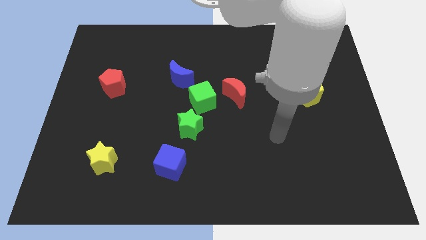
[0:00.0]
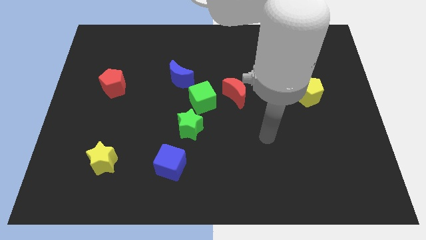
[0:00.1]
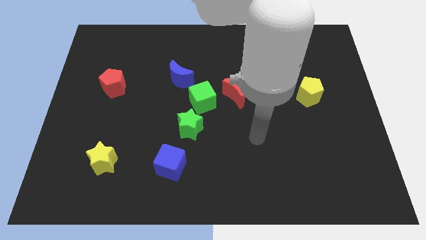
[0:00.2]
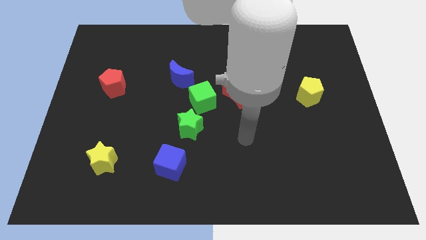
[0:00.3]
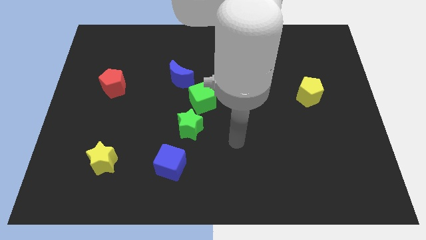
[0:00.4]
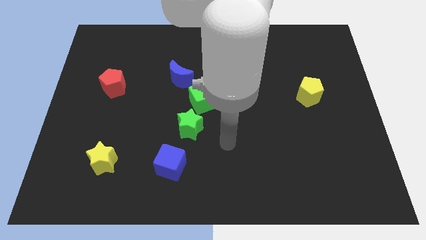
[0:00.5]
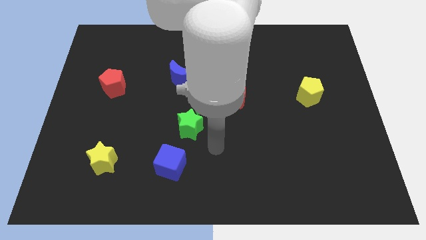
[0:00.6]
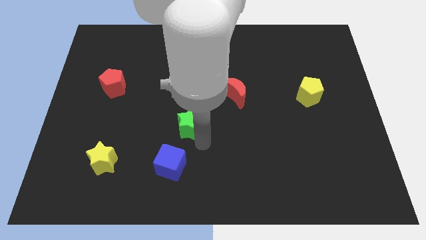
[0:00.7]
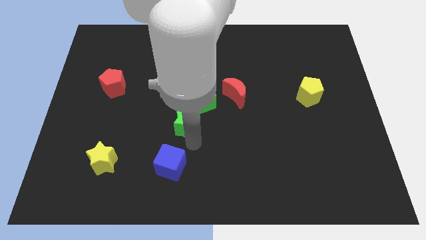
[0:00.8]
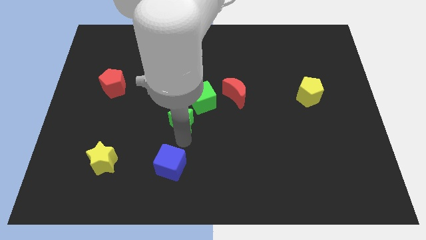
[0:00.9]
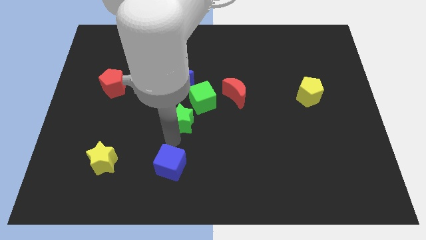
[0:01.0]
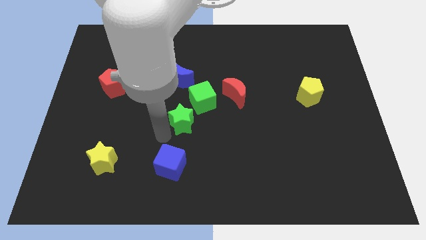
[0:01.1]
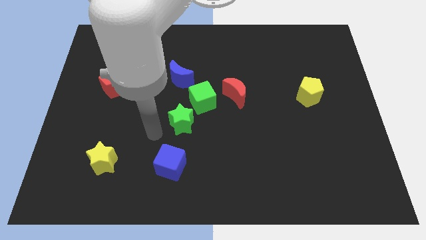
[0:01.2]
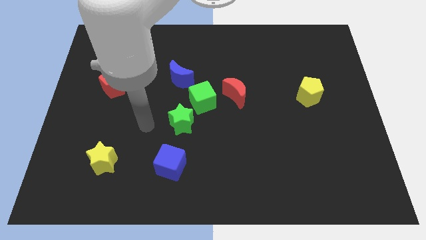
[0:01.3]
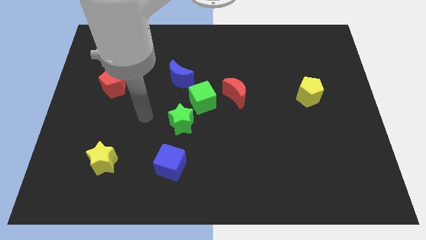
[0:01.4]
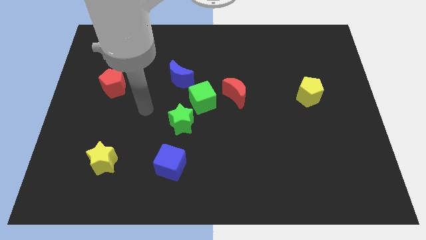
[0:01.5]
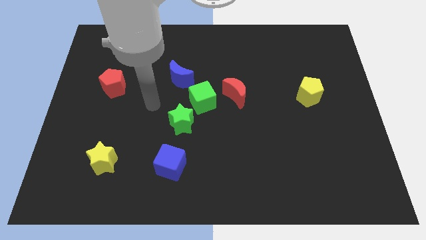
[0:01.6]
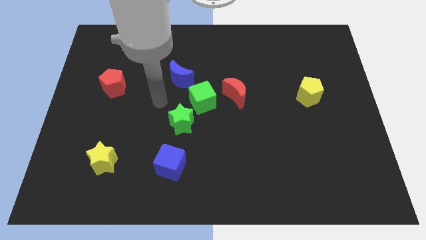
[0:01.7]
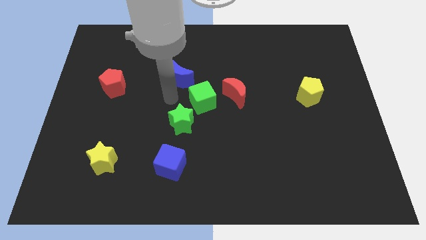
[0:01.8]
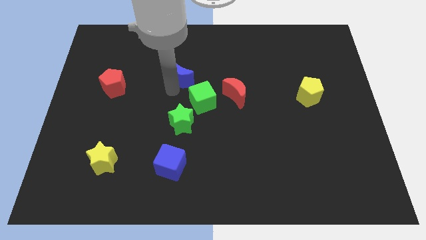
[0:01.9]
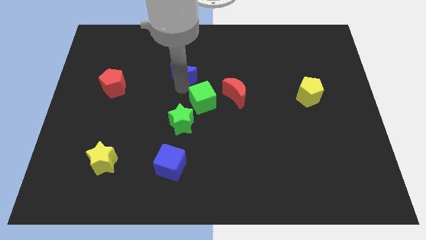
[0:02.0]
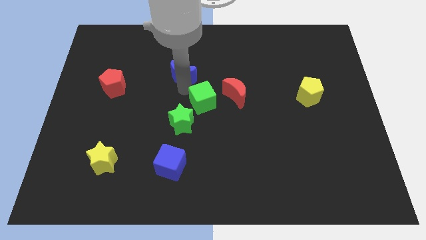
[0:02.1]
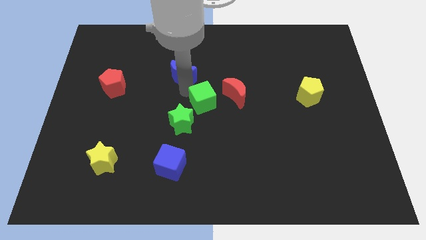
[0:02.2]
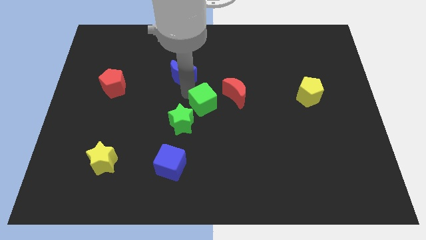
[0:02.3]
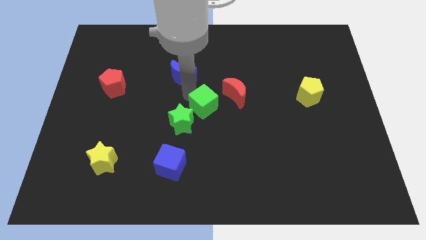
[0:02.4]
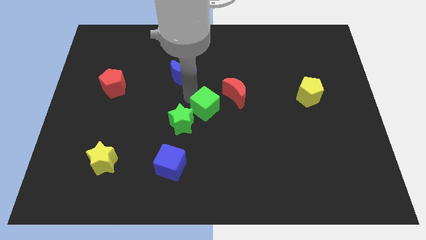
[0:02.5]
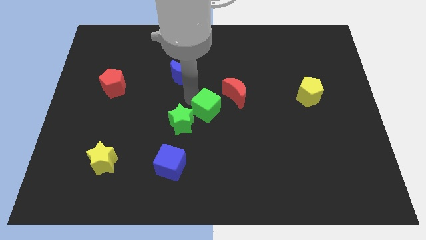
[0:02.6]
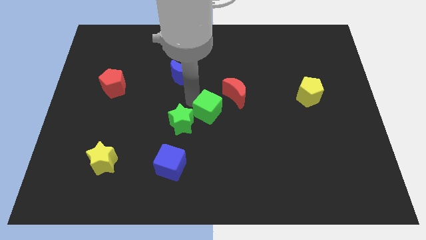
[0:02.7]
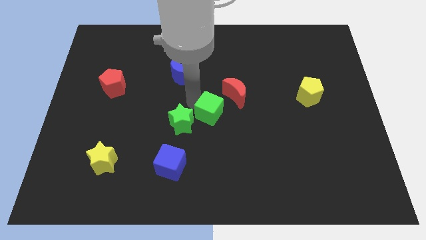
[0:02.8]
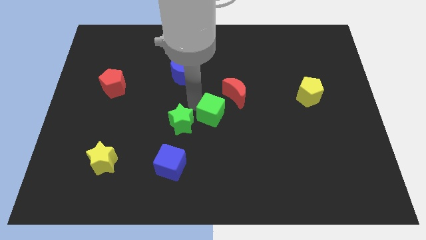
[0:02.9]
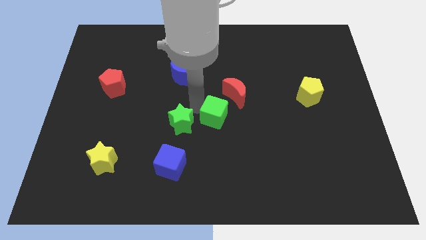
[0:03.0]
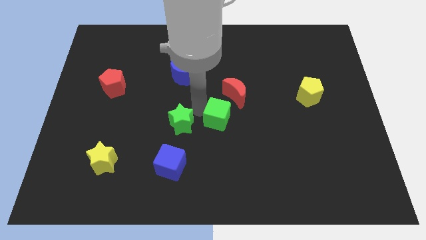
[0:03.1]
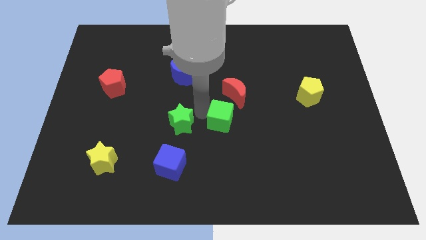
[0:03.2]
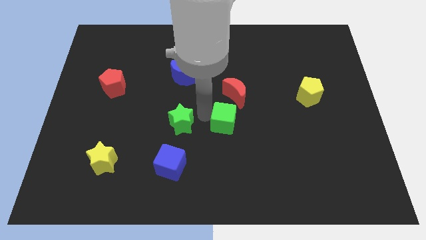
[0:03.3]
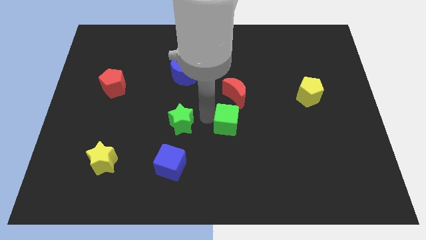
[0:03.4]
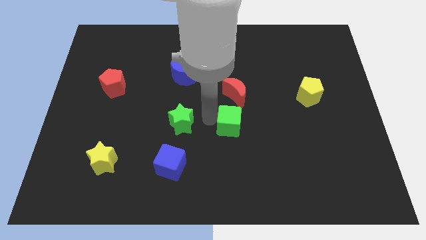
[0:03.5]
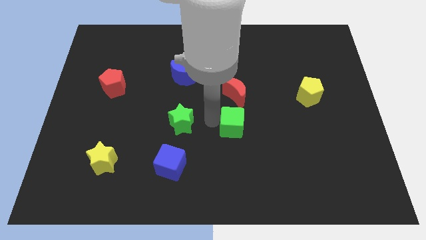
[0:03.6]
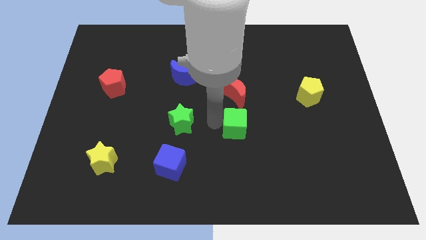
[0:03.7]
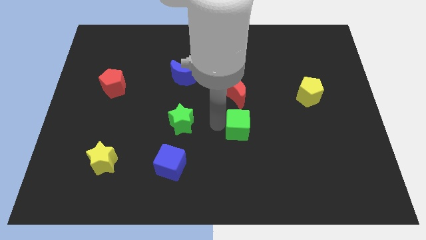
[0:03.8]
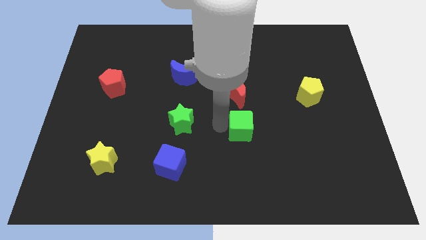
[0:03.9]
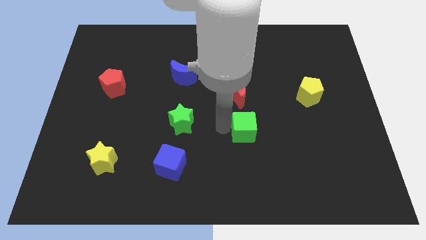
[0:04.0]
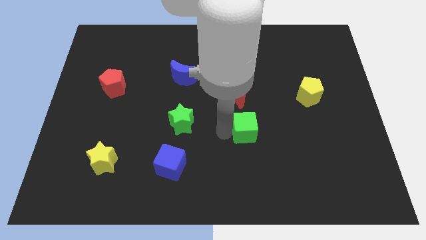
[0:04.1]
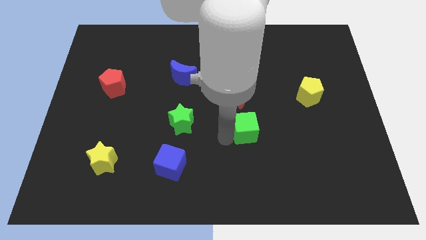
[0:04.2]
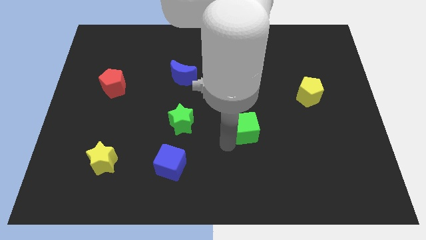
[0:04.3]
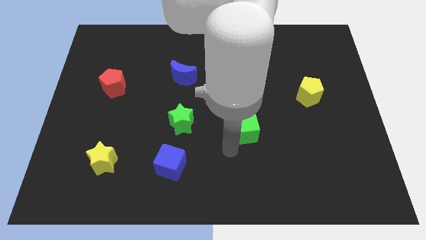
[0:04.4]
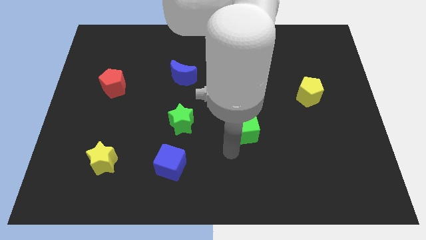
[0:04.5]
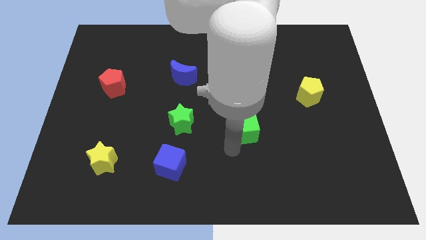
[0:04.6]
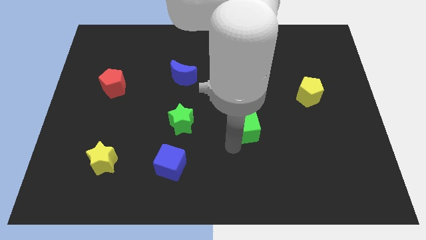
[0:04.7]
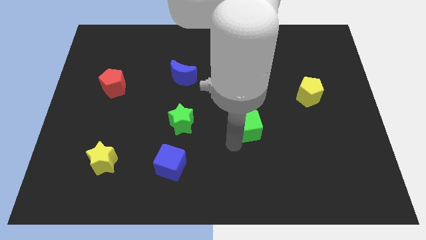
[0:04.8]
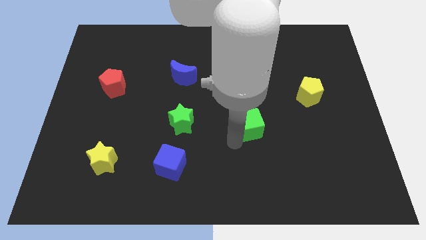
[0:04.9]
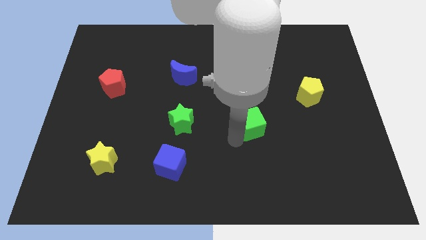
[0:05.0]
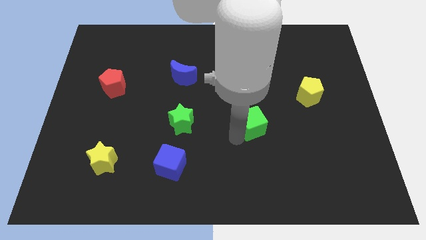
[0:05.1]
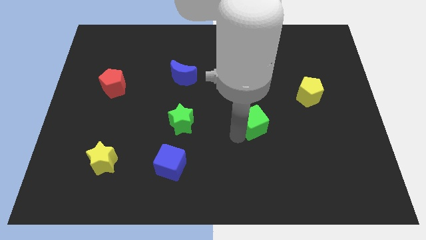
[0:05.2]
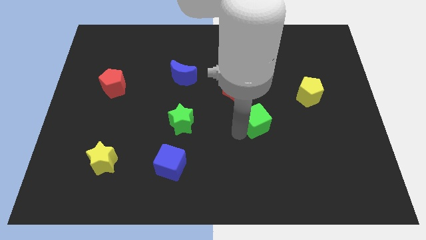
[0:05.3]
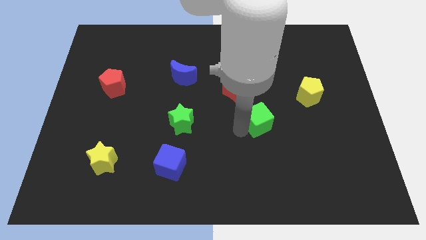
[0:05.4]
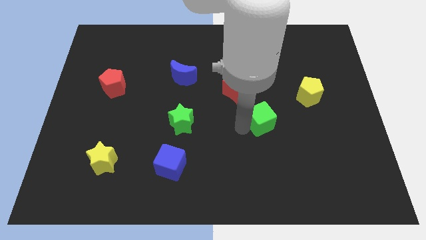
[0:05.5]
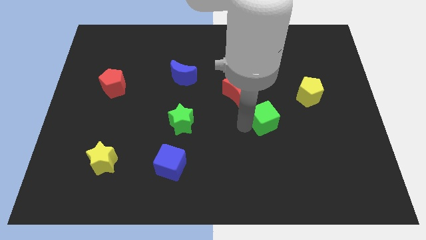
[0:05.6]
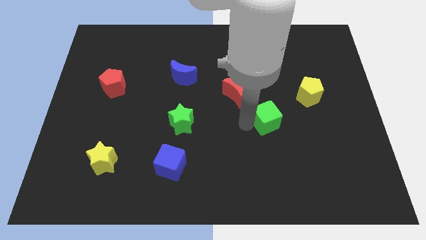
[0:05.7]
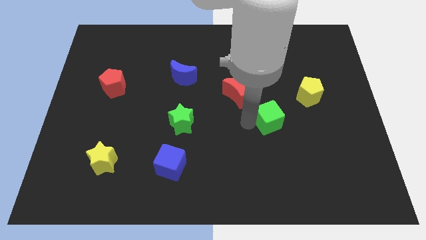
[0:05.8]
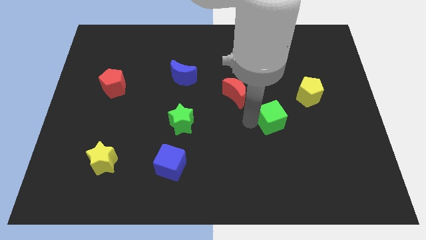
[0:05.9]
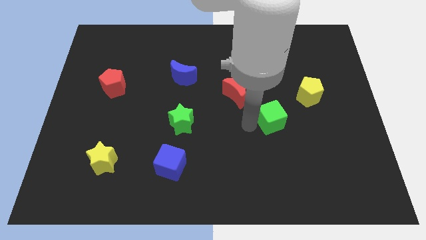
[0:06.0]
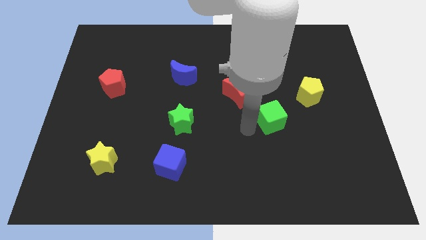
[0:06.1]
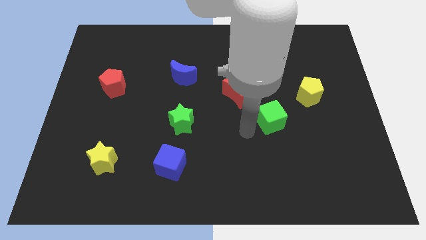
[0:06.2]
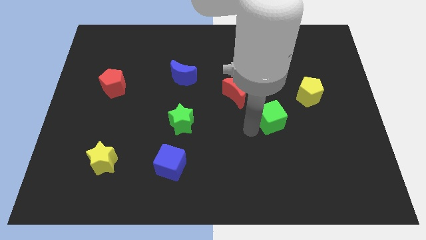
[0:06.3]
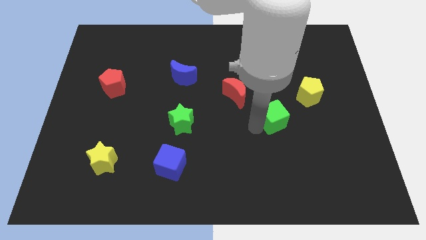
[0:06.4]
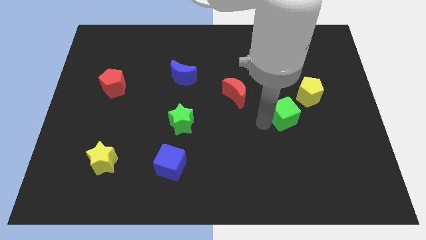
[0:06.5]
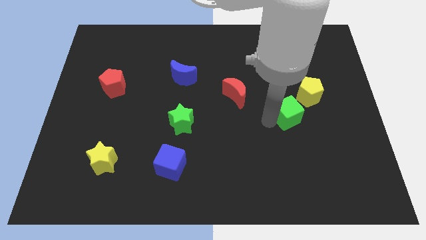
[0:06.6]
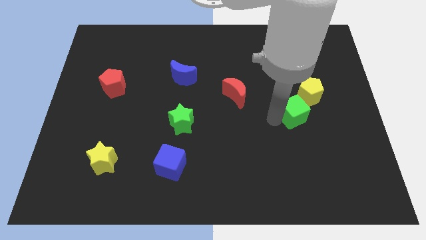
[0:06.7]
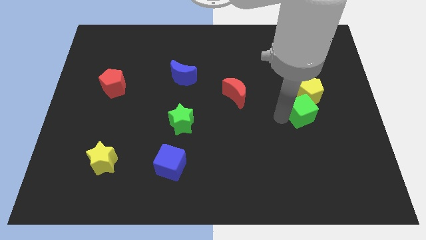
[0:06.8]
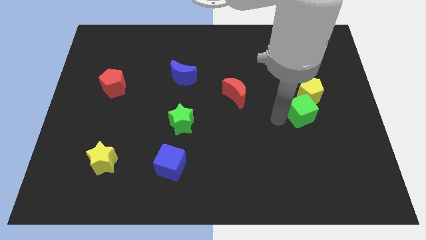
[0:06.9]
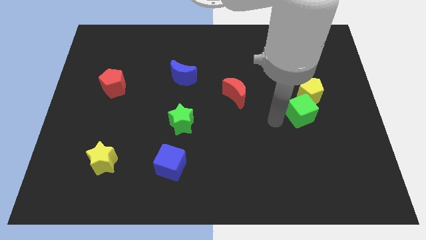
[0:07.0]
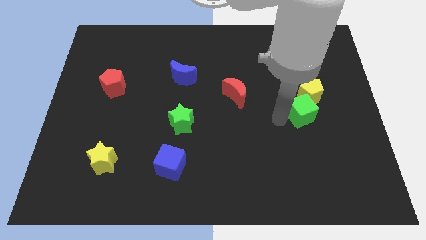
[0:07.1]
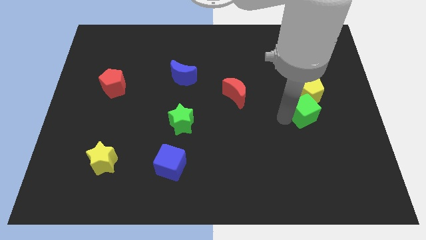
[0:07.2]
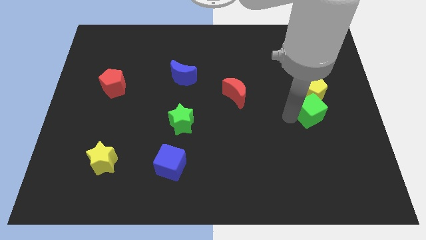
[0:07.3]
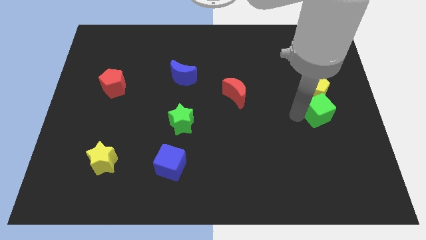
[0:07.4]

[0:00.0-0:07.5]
move the green cube to the bottom right of the yellow pentagon
